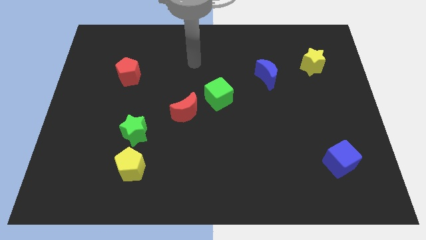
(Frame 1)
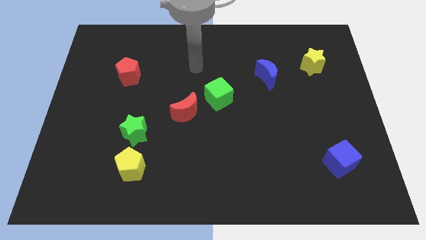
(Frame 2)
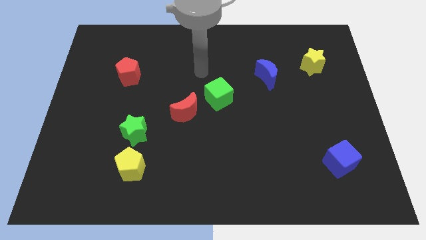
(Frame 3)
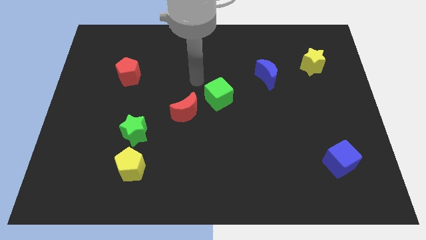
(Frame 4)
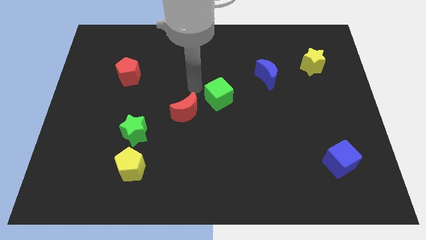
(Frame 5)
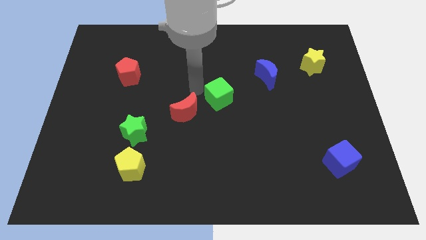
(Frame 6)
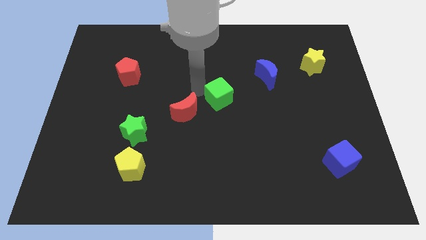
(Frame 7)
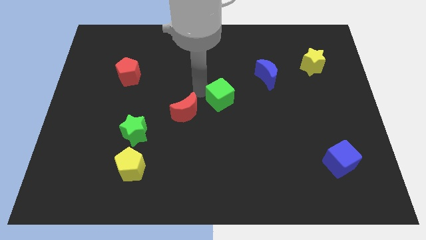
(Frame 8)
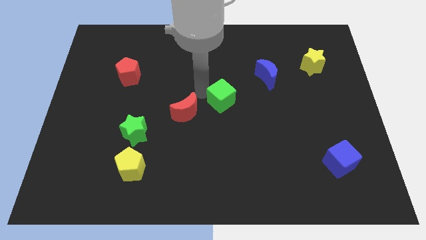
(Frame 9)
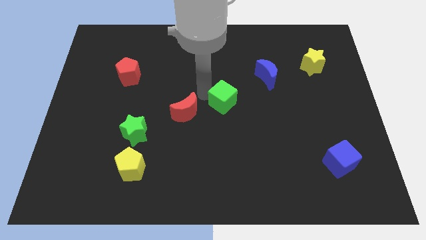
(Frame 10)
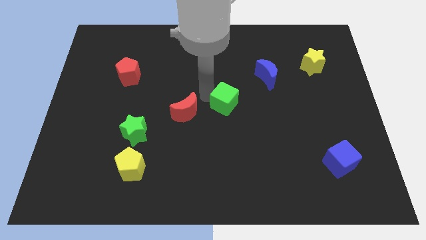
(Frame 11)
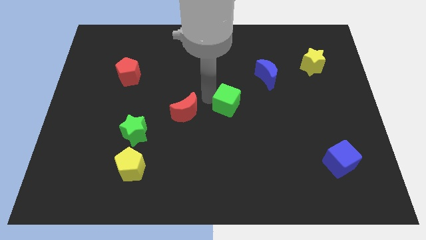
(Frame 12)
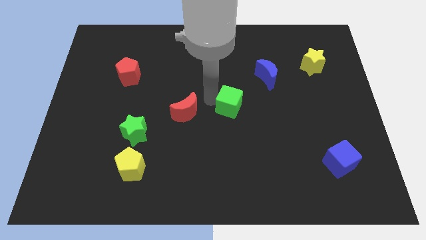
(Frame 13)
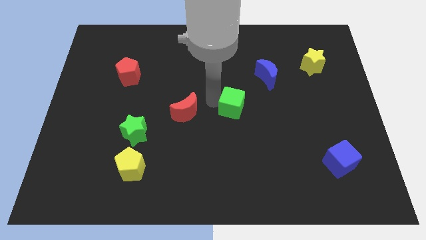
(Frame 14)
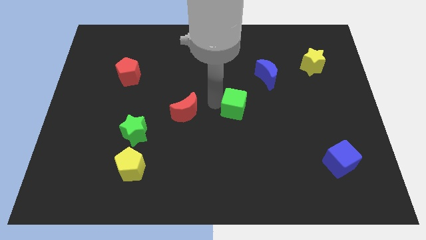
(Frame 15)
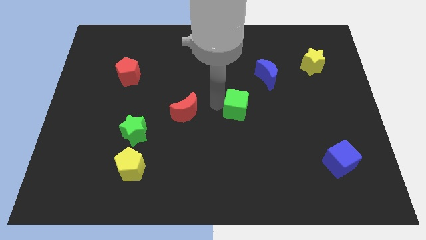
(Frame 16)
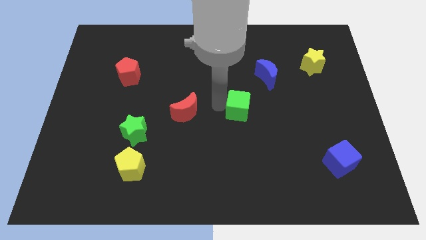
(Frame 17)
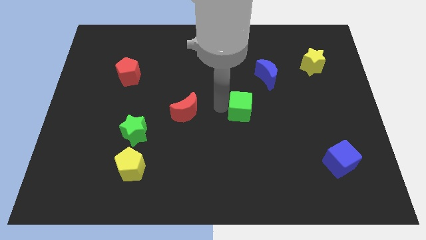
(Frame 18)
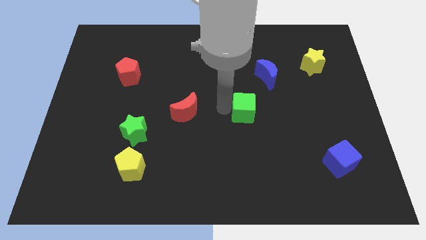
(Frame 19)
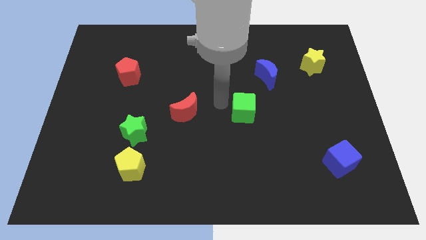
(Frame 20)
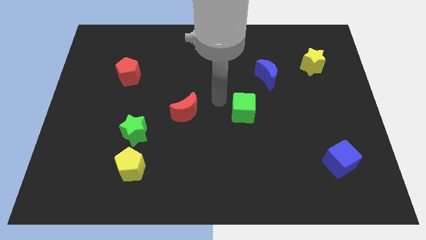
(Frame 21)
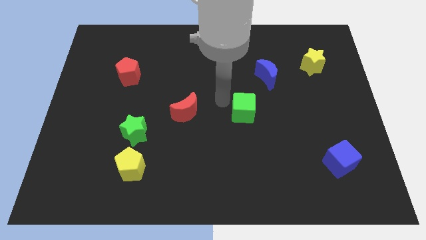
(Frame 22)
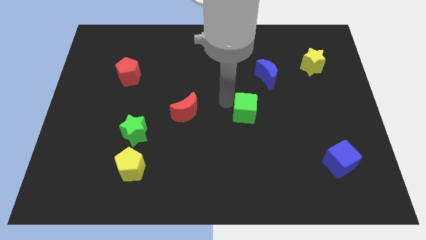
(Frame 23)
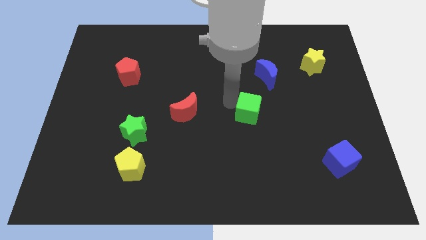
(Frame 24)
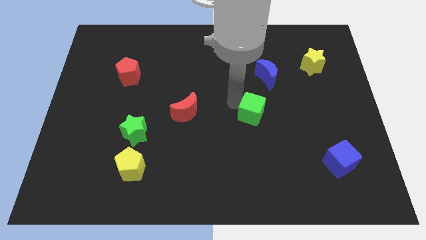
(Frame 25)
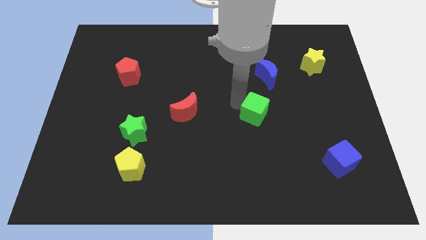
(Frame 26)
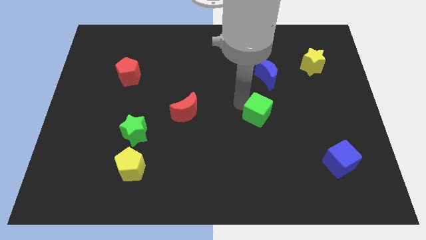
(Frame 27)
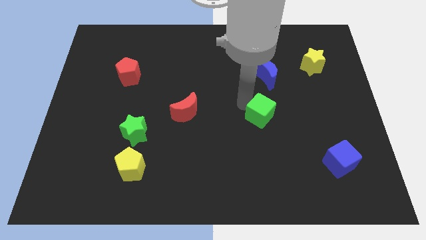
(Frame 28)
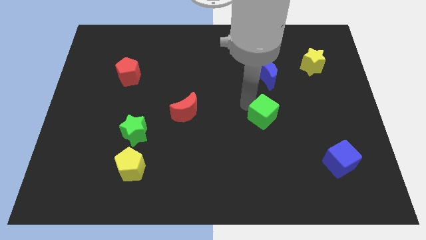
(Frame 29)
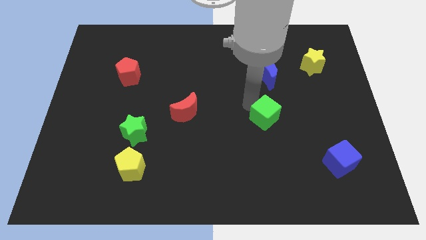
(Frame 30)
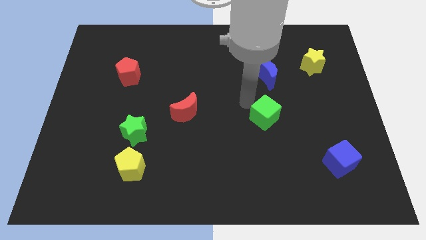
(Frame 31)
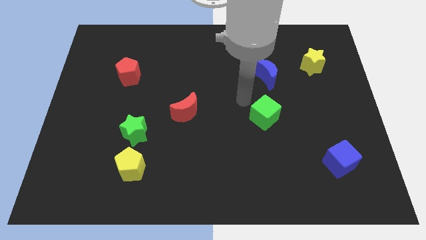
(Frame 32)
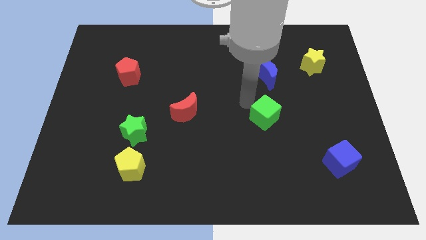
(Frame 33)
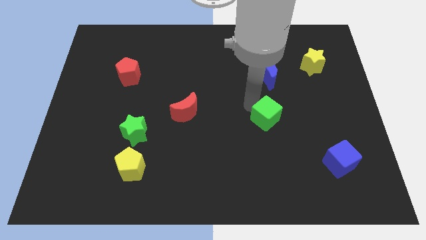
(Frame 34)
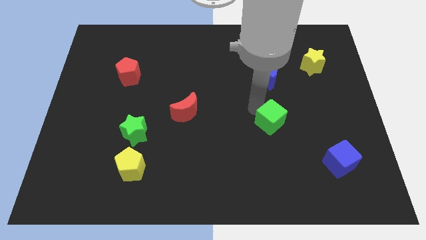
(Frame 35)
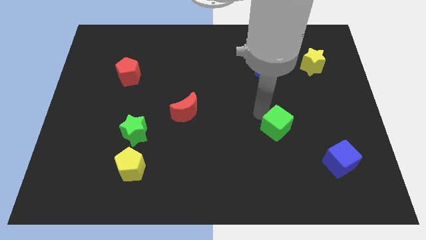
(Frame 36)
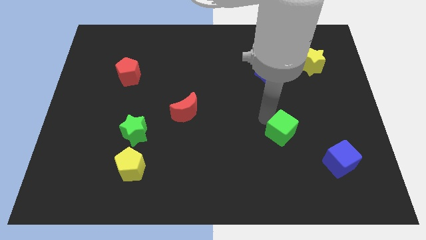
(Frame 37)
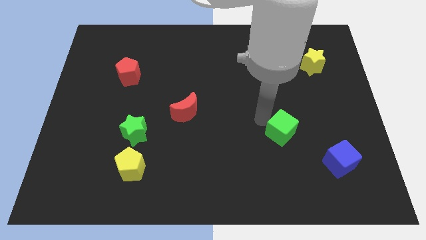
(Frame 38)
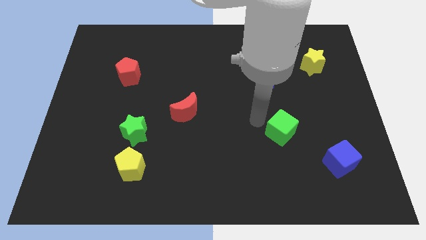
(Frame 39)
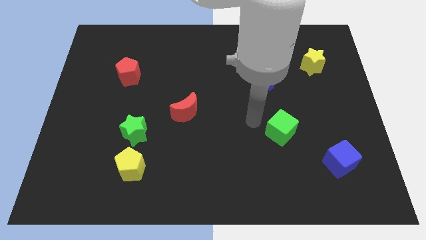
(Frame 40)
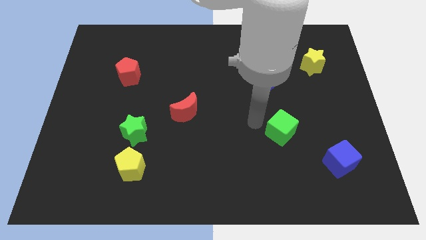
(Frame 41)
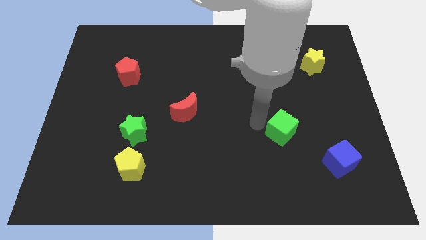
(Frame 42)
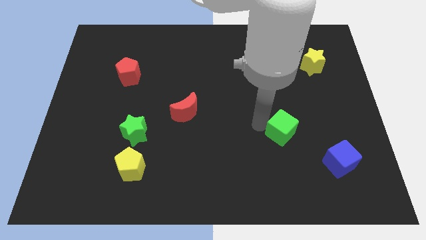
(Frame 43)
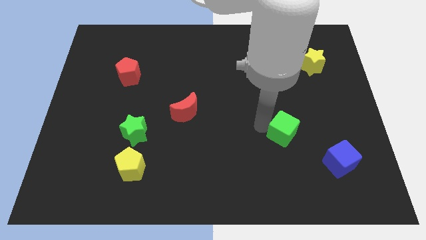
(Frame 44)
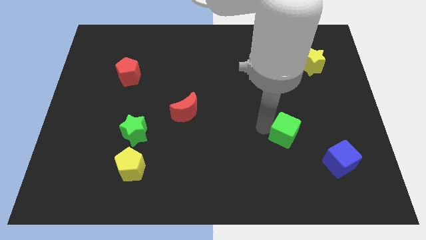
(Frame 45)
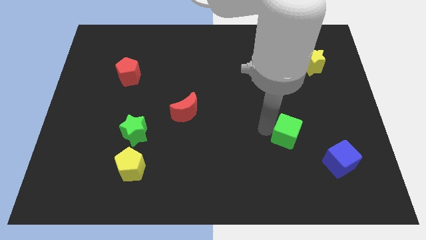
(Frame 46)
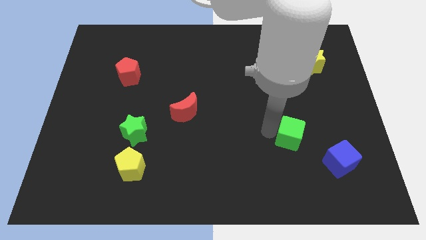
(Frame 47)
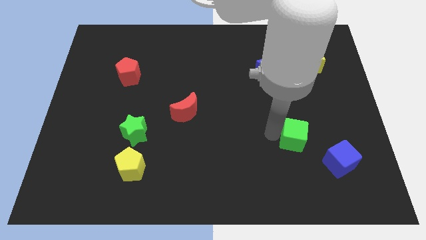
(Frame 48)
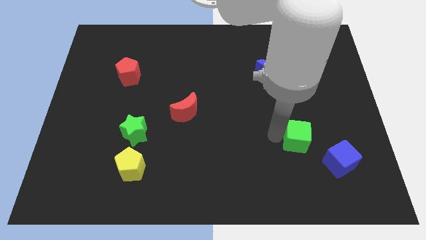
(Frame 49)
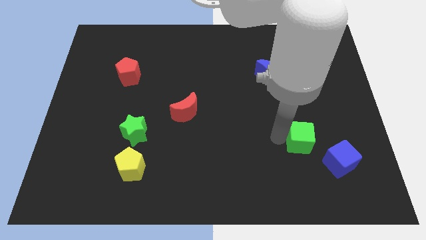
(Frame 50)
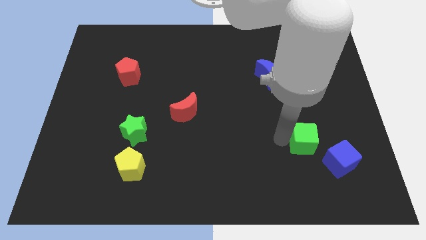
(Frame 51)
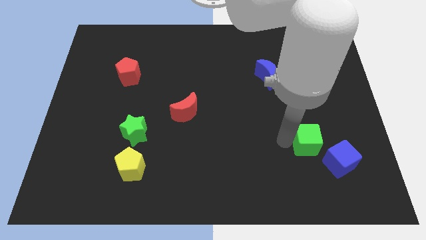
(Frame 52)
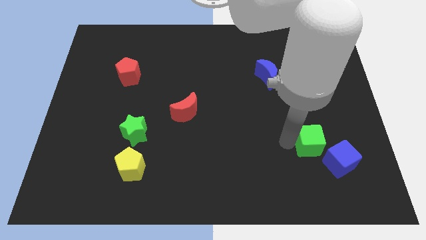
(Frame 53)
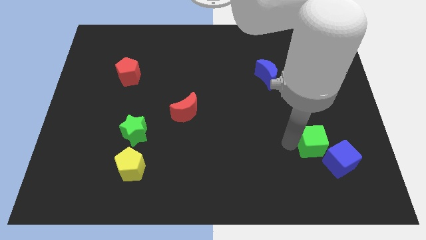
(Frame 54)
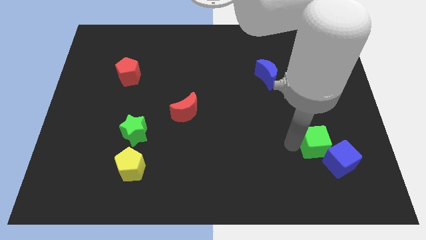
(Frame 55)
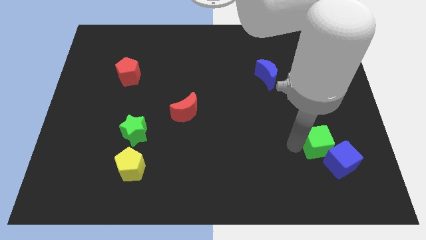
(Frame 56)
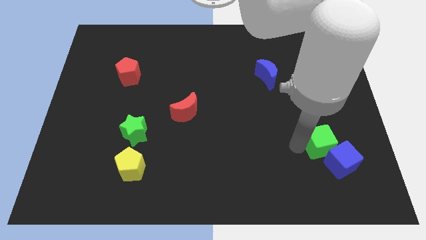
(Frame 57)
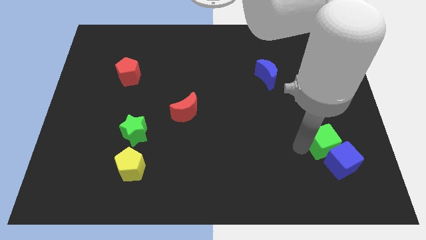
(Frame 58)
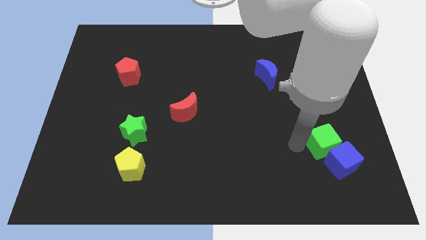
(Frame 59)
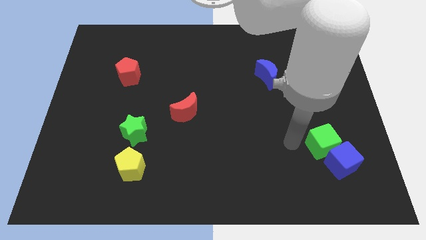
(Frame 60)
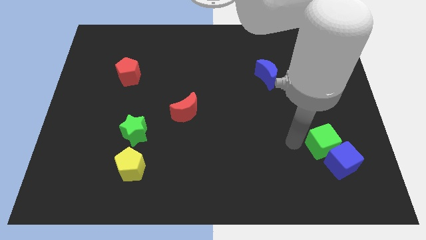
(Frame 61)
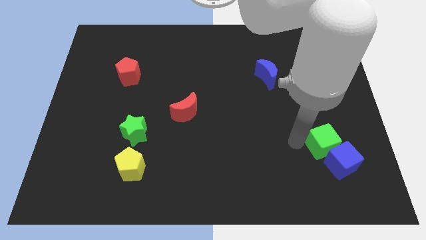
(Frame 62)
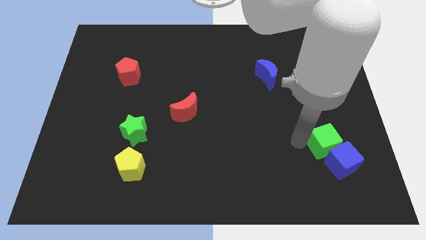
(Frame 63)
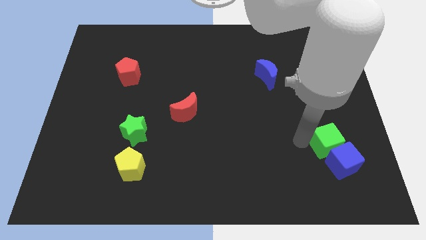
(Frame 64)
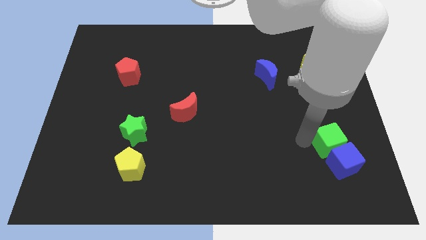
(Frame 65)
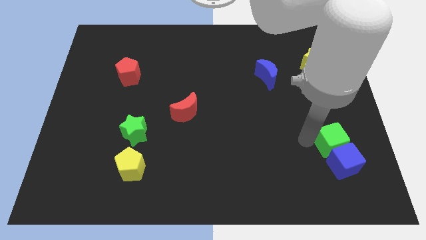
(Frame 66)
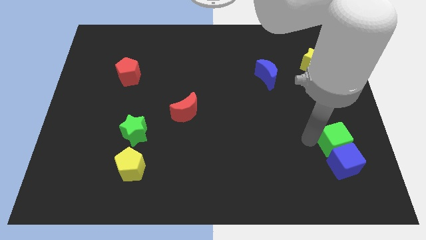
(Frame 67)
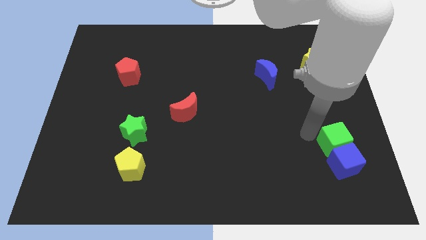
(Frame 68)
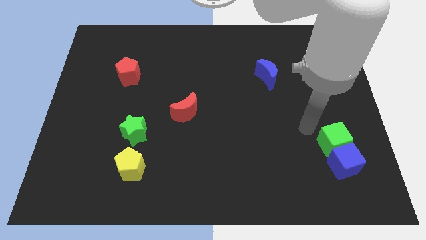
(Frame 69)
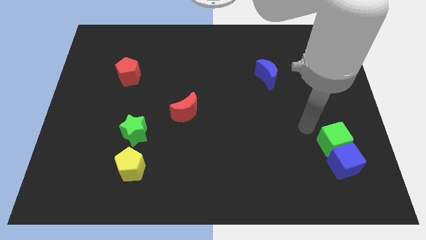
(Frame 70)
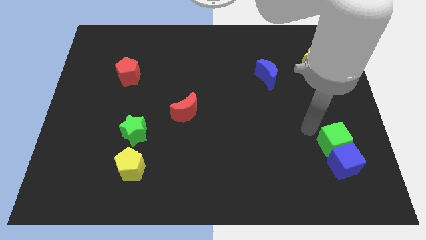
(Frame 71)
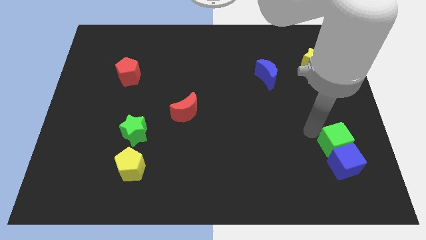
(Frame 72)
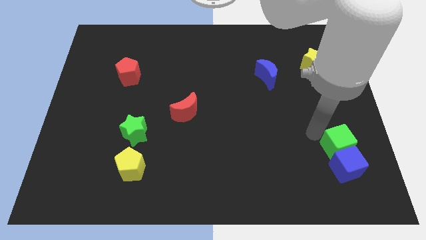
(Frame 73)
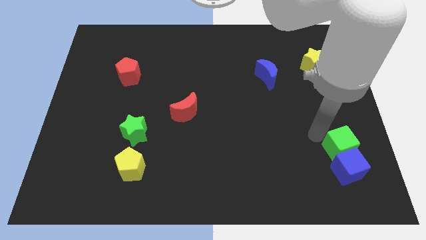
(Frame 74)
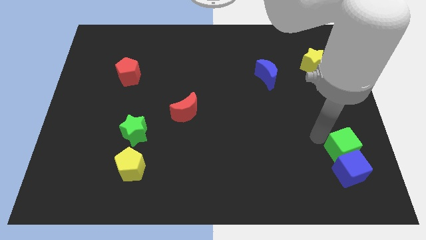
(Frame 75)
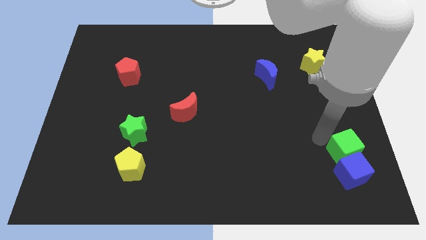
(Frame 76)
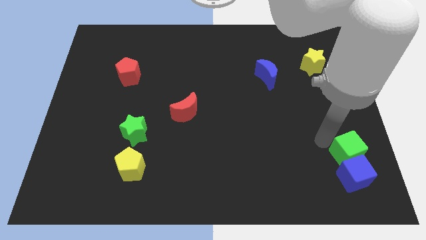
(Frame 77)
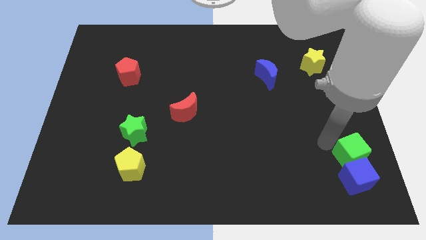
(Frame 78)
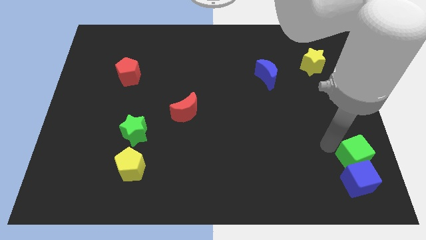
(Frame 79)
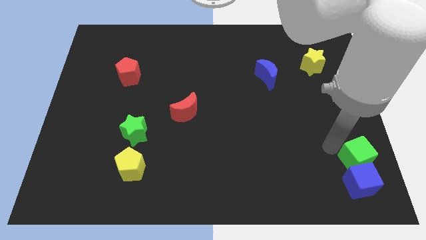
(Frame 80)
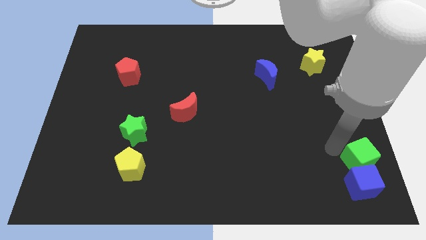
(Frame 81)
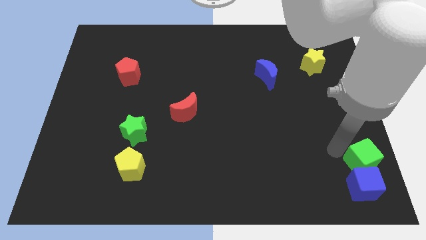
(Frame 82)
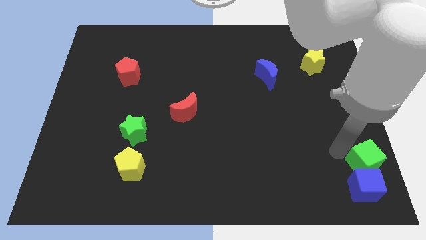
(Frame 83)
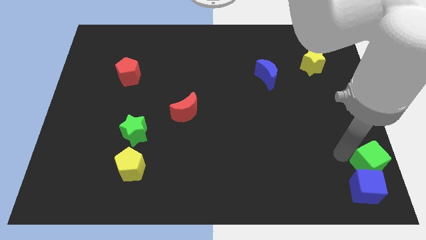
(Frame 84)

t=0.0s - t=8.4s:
move the green cube to the bottom right corner
